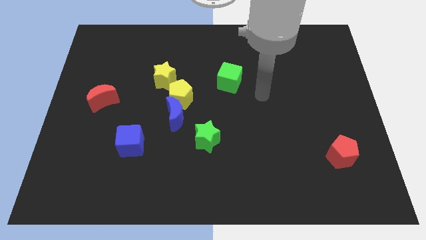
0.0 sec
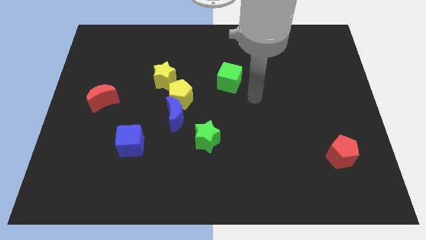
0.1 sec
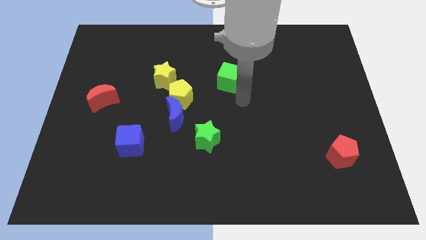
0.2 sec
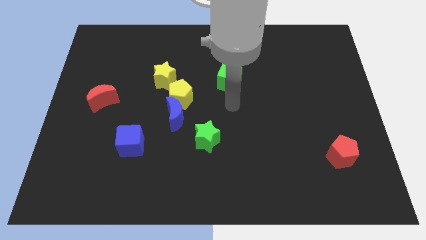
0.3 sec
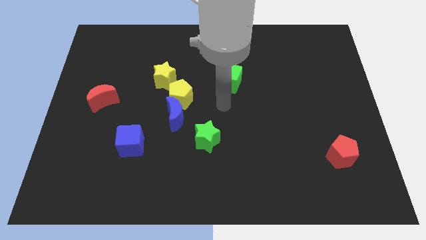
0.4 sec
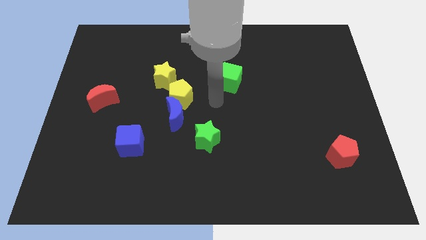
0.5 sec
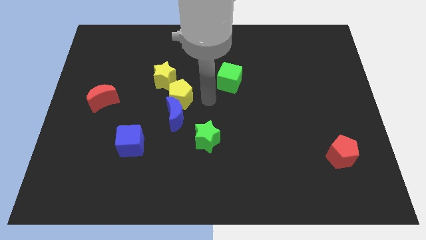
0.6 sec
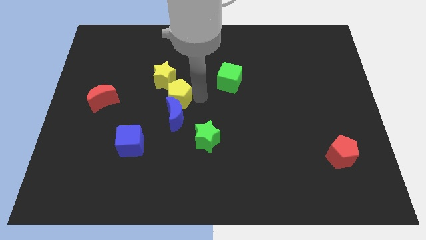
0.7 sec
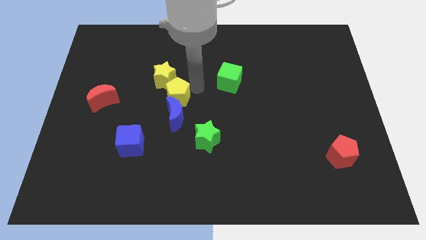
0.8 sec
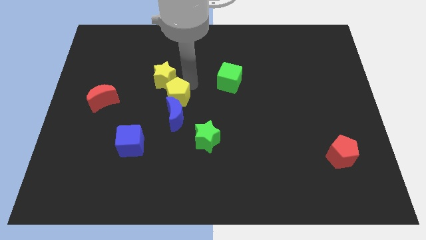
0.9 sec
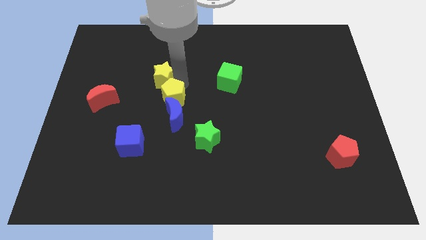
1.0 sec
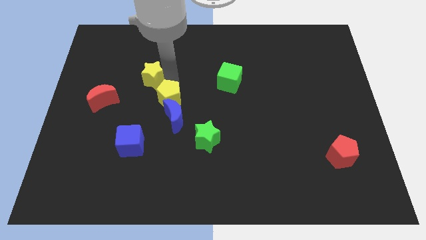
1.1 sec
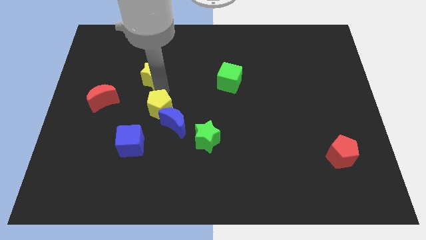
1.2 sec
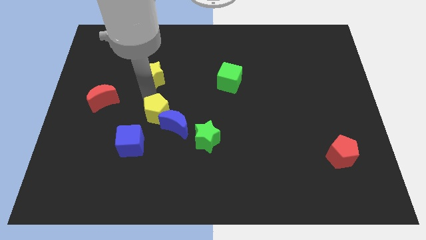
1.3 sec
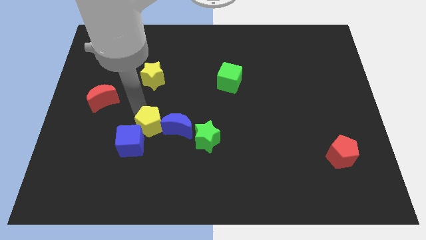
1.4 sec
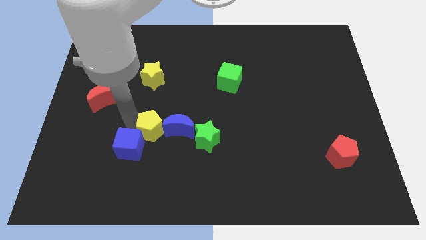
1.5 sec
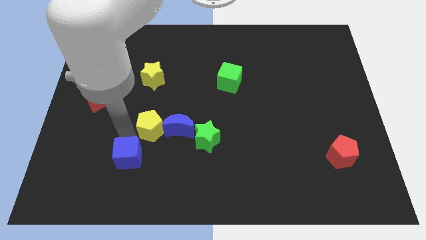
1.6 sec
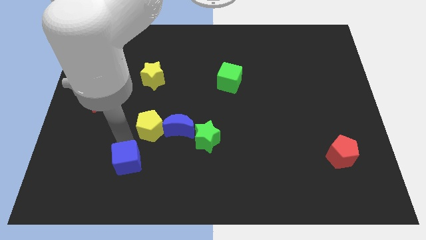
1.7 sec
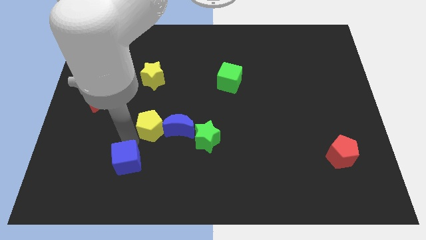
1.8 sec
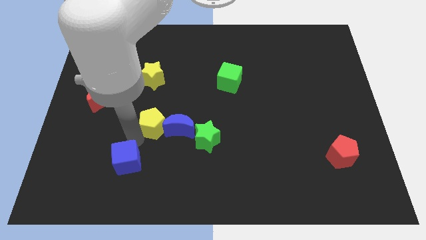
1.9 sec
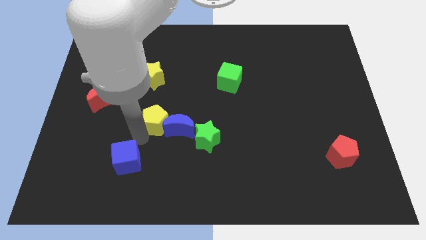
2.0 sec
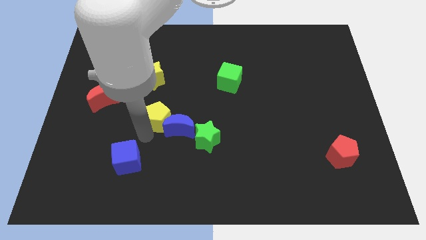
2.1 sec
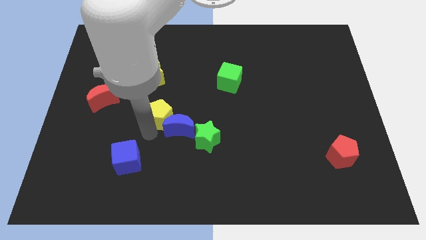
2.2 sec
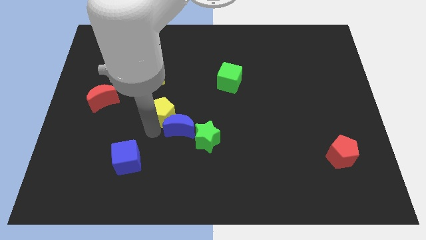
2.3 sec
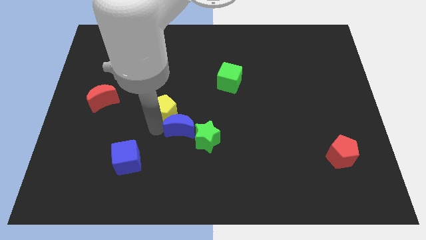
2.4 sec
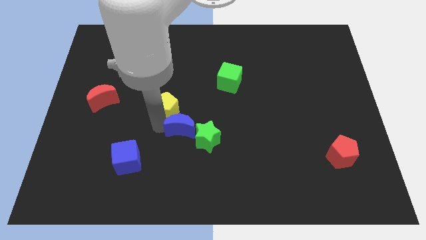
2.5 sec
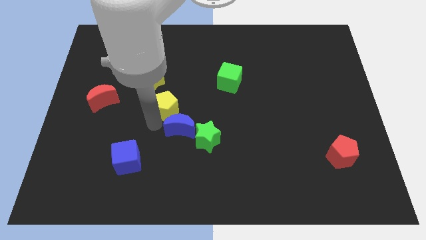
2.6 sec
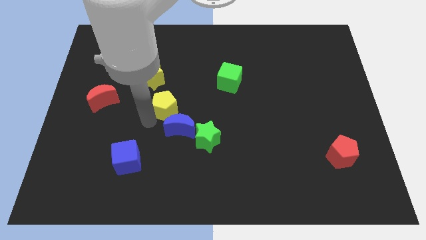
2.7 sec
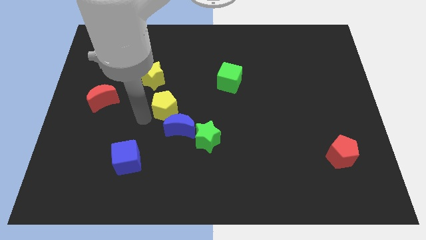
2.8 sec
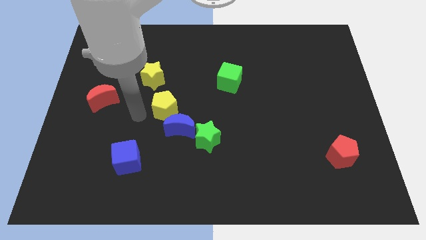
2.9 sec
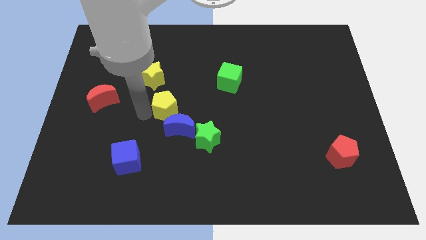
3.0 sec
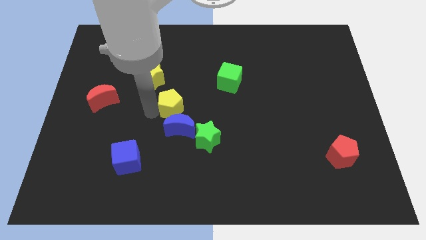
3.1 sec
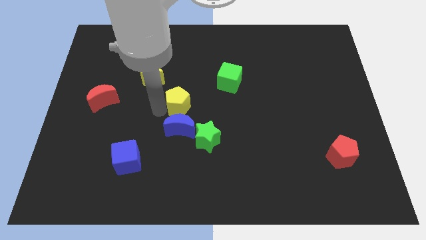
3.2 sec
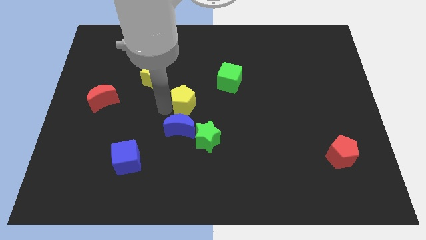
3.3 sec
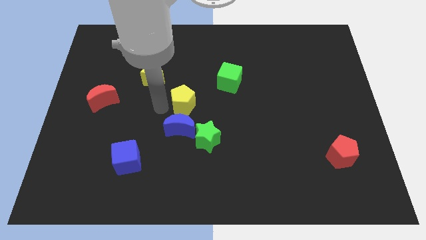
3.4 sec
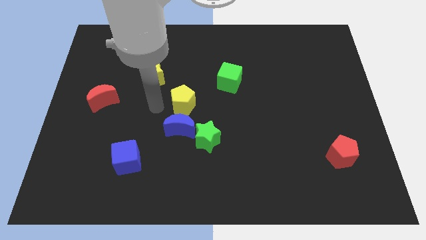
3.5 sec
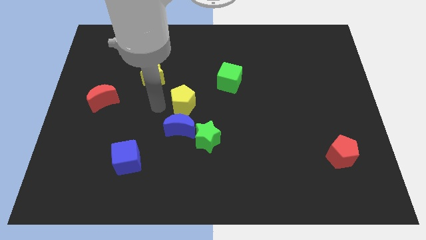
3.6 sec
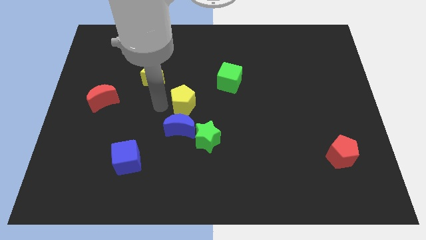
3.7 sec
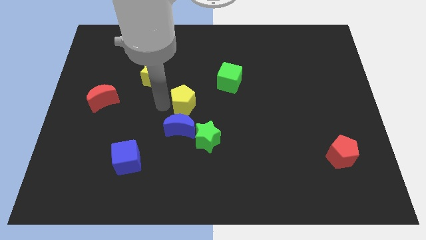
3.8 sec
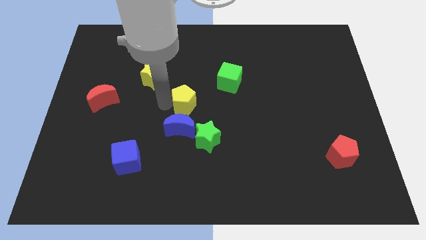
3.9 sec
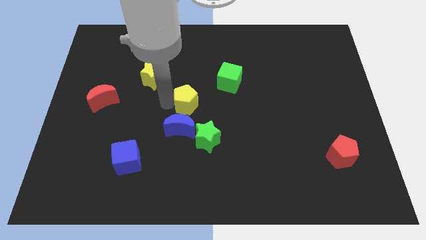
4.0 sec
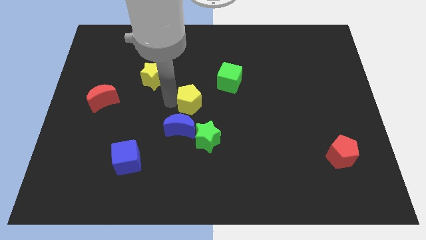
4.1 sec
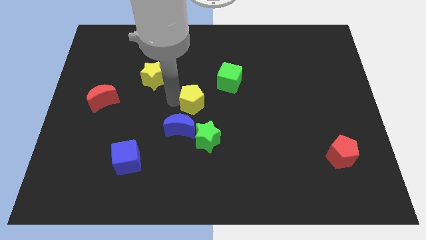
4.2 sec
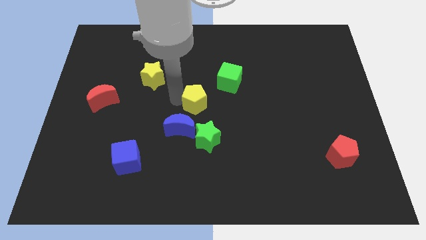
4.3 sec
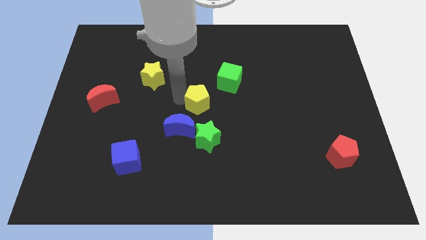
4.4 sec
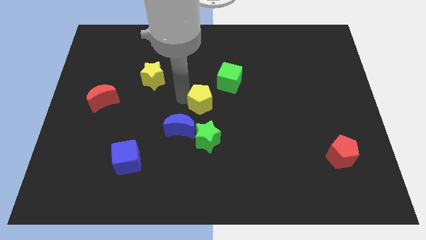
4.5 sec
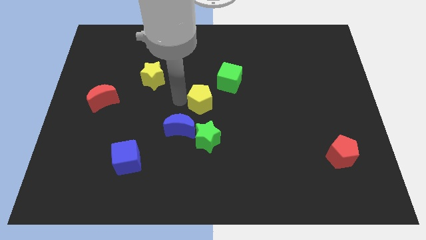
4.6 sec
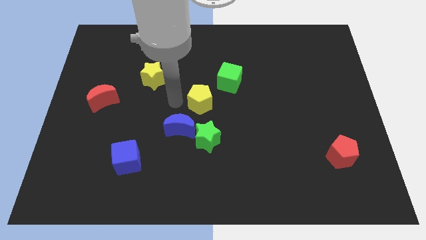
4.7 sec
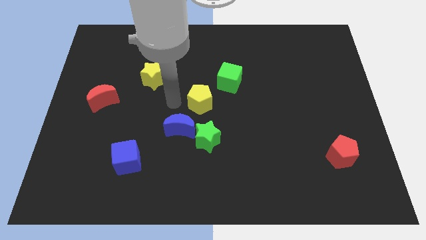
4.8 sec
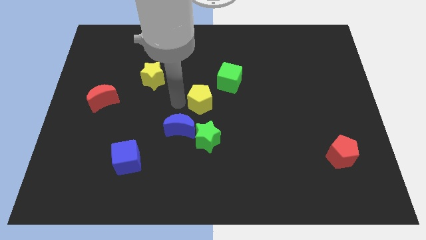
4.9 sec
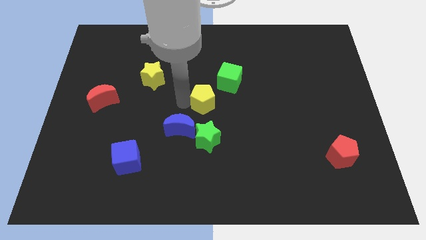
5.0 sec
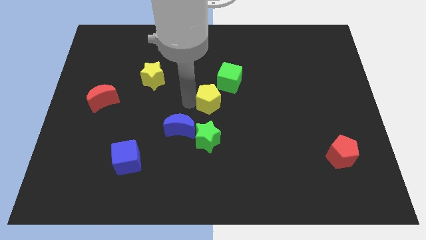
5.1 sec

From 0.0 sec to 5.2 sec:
separate the yellow pentagon from the blue moon and yellow star

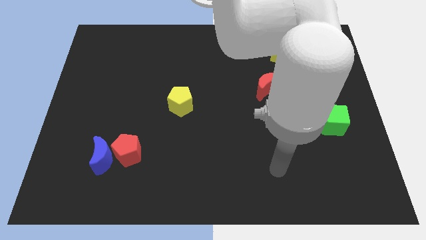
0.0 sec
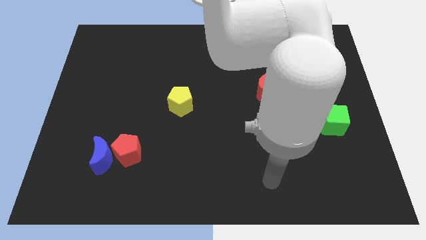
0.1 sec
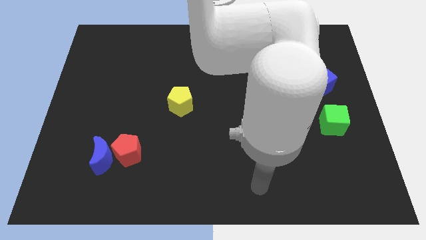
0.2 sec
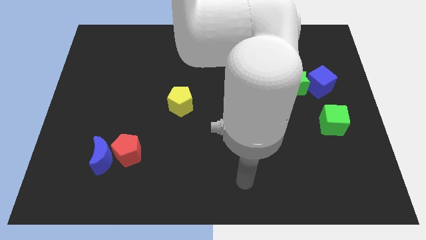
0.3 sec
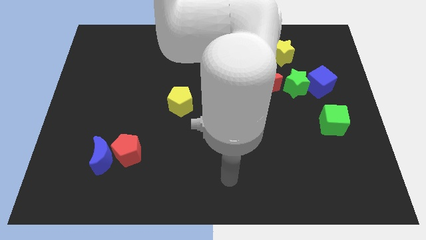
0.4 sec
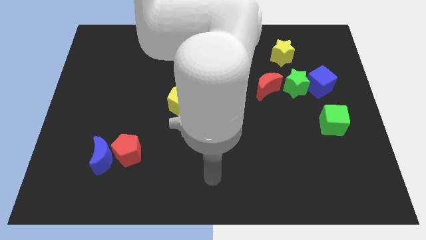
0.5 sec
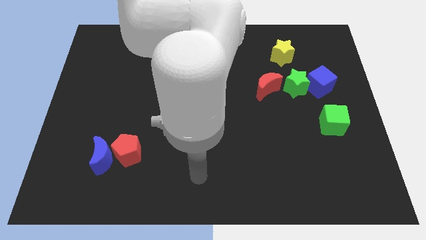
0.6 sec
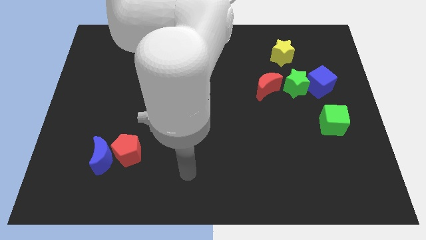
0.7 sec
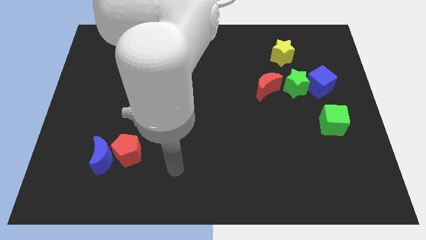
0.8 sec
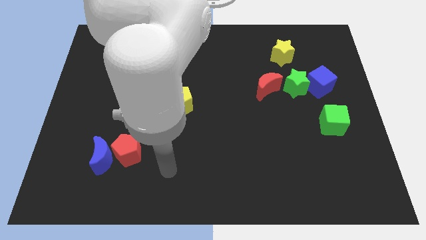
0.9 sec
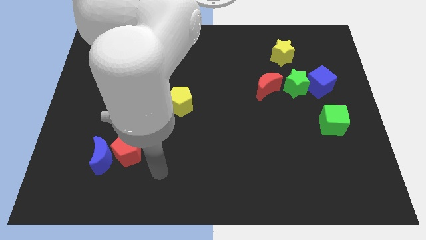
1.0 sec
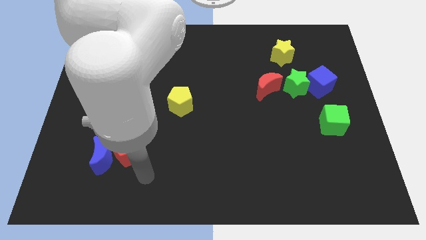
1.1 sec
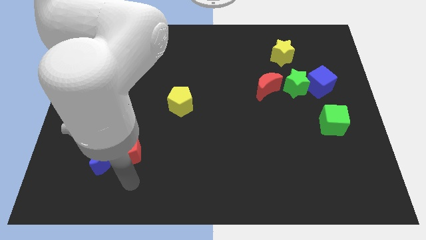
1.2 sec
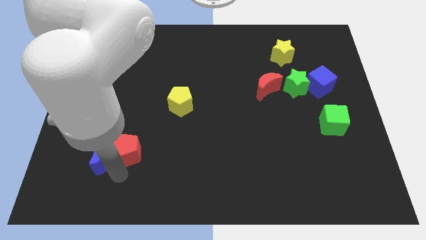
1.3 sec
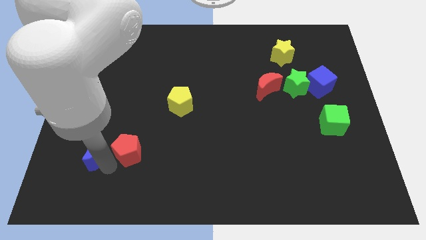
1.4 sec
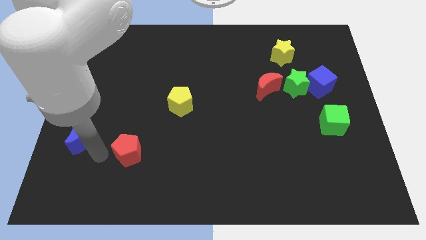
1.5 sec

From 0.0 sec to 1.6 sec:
separate the red pentagon from the blue moon

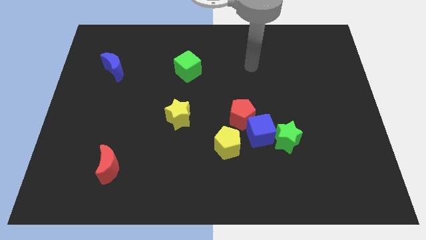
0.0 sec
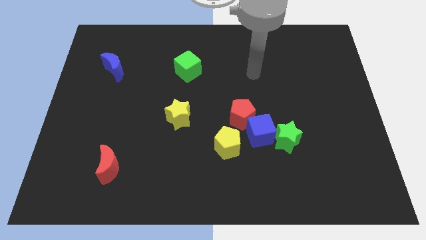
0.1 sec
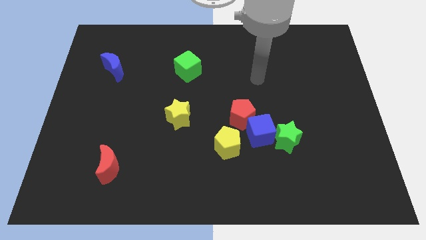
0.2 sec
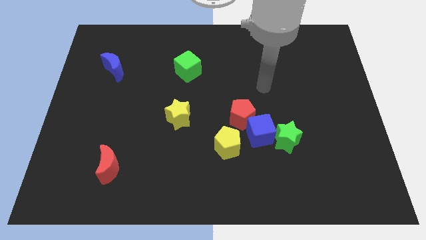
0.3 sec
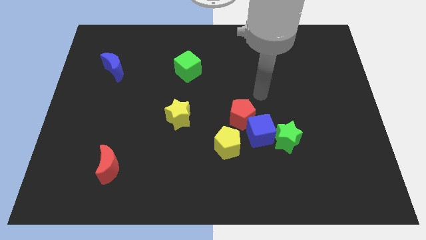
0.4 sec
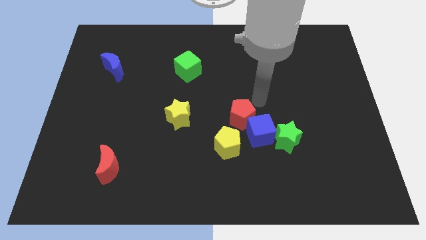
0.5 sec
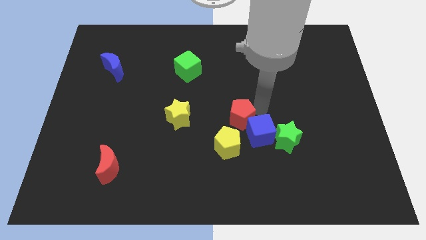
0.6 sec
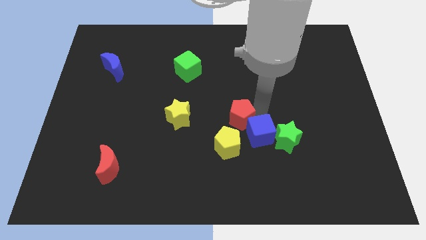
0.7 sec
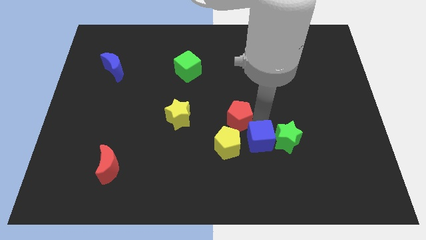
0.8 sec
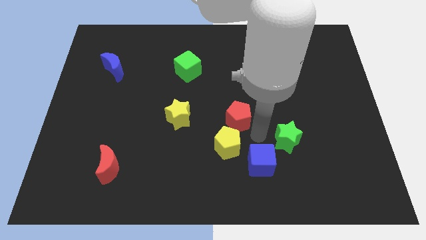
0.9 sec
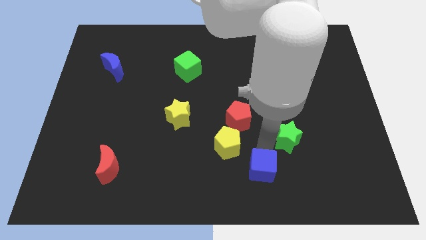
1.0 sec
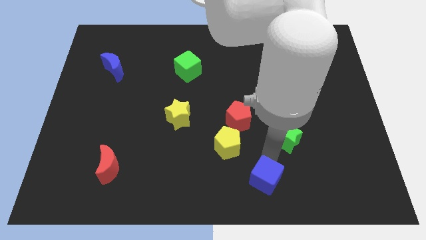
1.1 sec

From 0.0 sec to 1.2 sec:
separate the green star from the blue cube

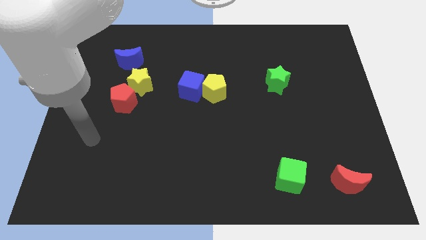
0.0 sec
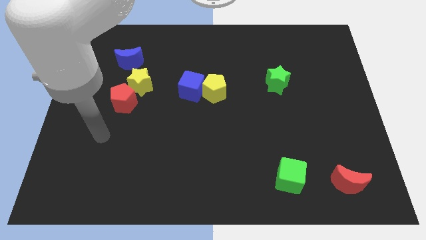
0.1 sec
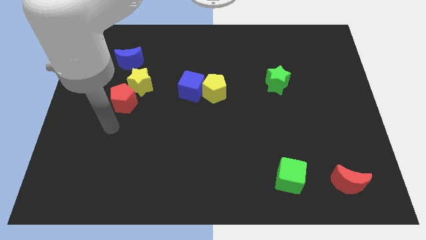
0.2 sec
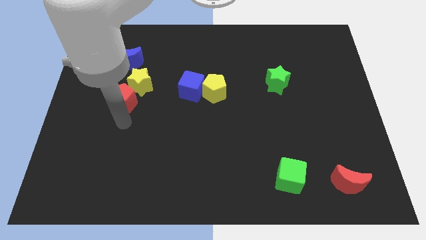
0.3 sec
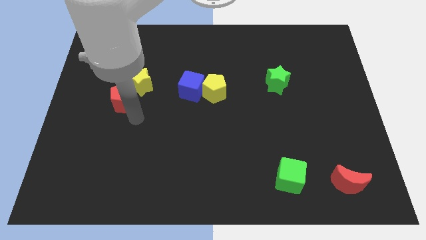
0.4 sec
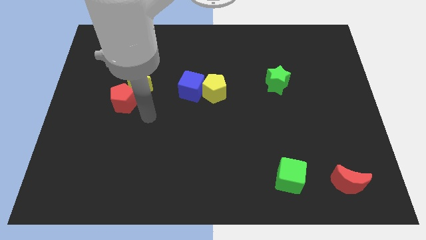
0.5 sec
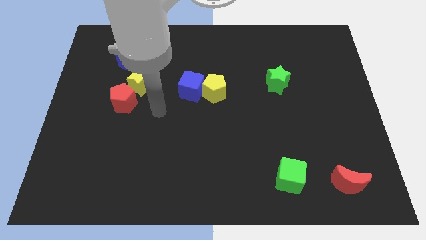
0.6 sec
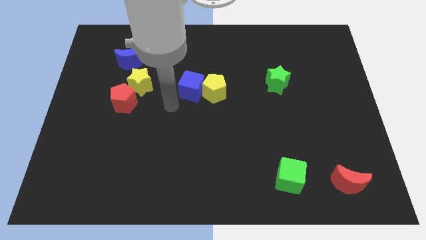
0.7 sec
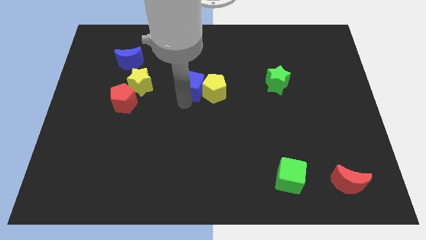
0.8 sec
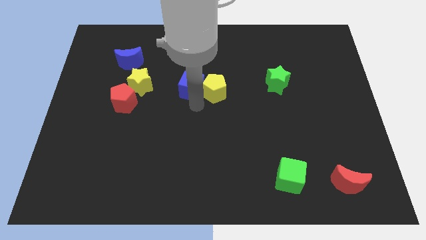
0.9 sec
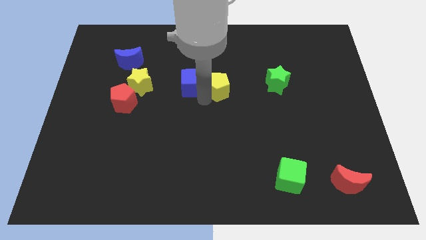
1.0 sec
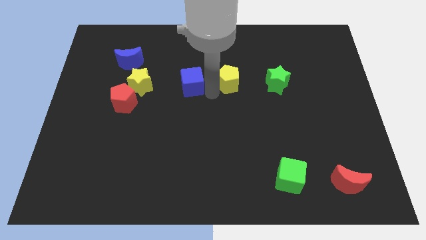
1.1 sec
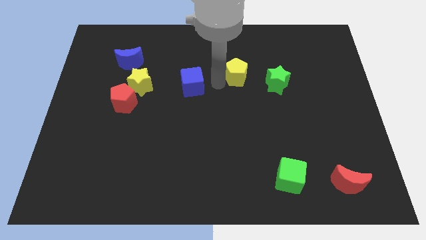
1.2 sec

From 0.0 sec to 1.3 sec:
pull the blue cube apart from the yellow pentagon

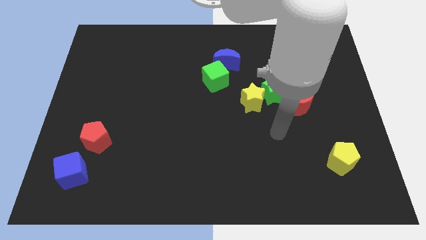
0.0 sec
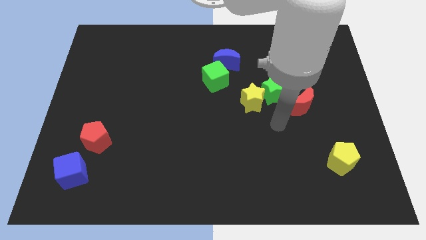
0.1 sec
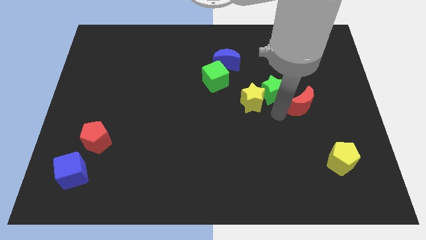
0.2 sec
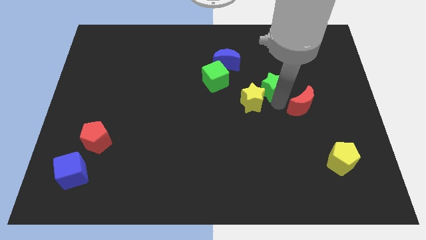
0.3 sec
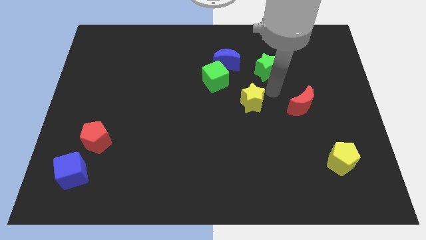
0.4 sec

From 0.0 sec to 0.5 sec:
move the yellow star away from the green star
